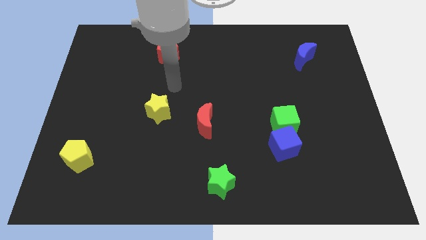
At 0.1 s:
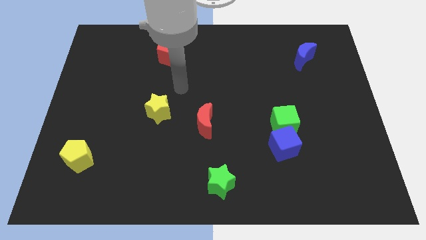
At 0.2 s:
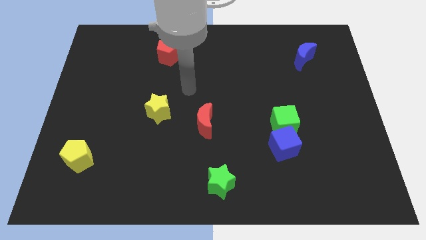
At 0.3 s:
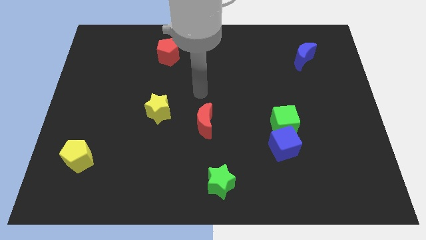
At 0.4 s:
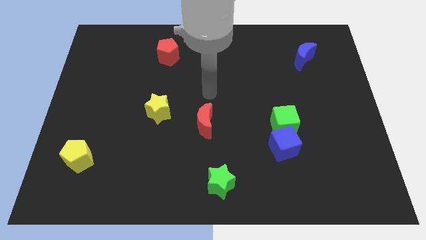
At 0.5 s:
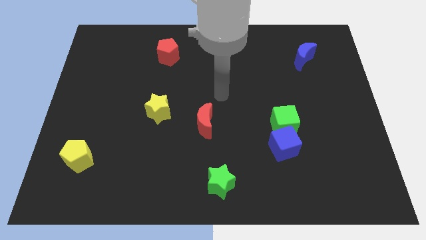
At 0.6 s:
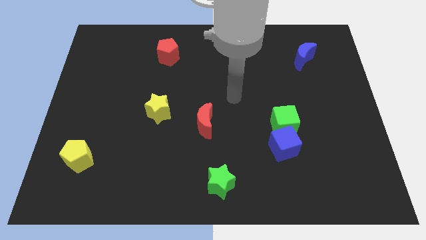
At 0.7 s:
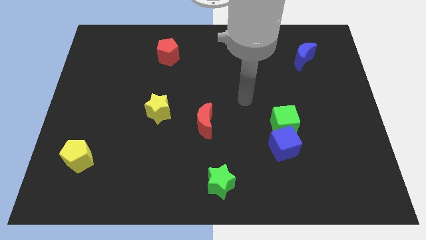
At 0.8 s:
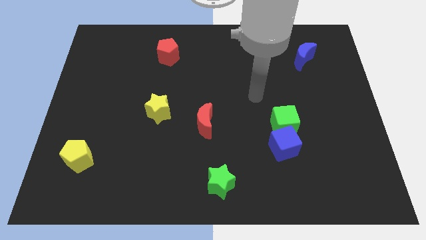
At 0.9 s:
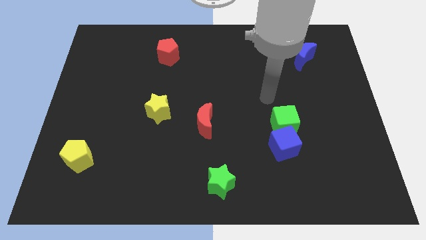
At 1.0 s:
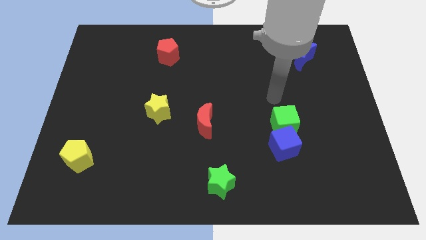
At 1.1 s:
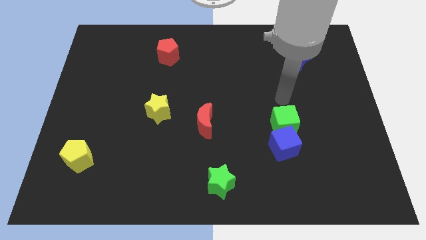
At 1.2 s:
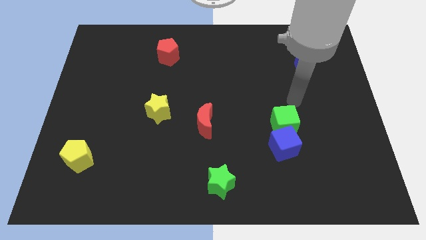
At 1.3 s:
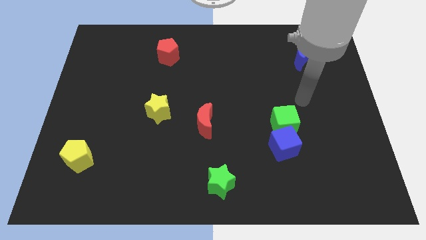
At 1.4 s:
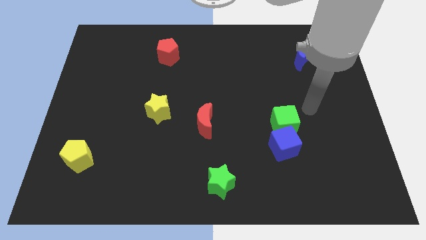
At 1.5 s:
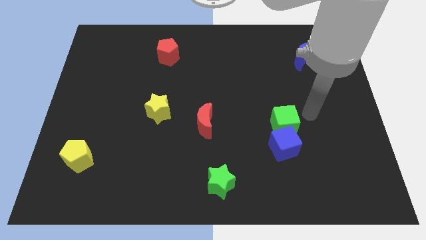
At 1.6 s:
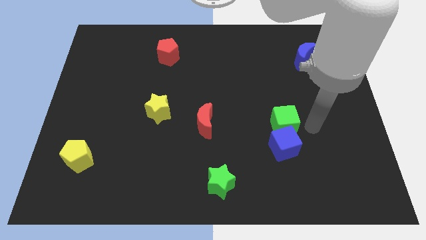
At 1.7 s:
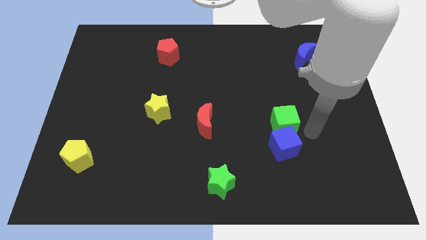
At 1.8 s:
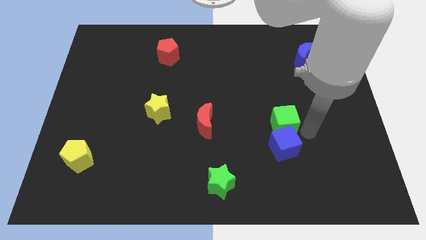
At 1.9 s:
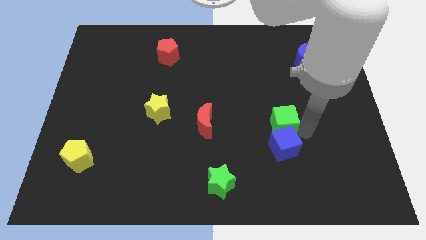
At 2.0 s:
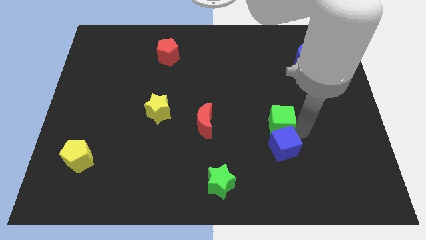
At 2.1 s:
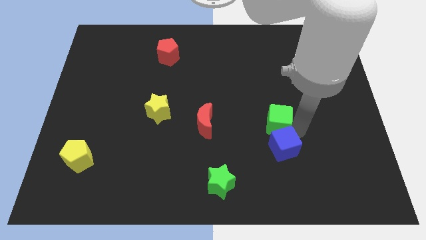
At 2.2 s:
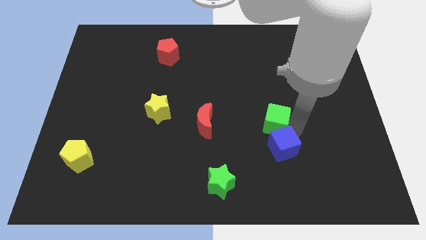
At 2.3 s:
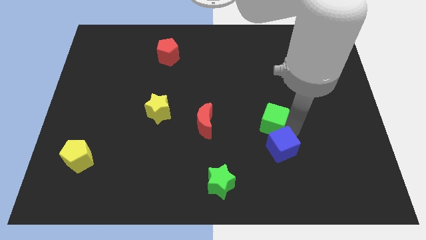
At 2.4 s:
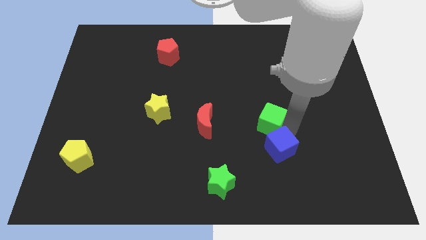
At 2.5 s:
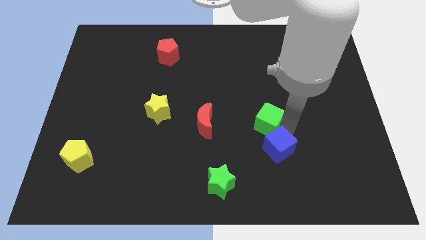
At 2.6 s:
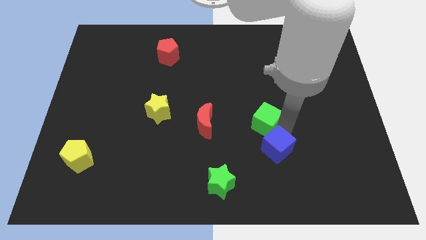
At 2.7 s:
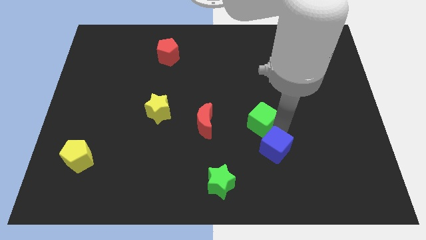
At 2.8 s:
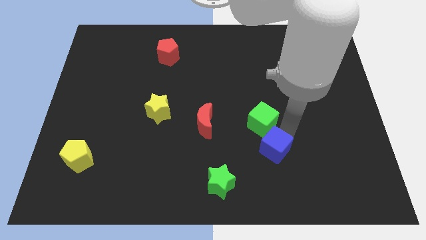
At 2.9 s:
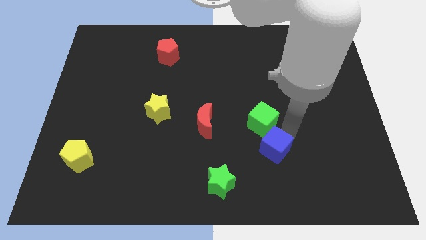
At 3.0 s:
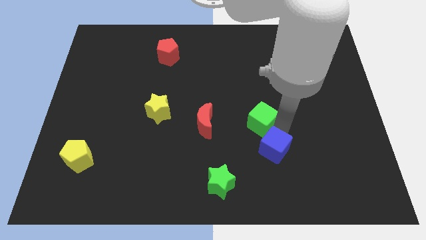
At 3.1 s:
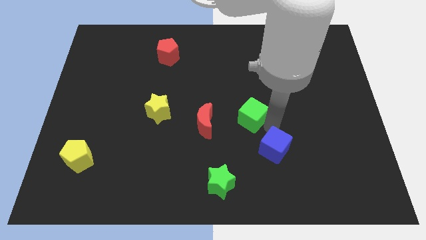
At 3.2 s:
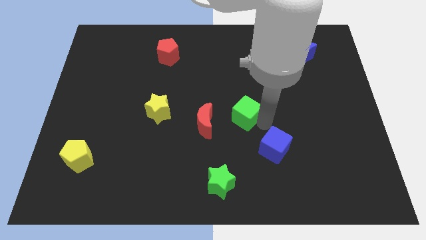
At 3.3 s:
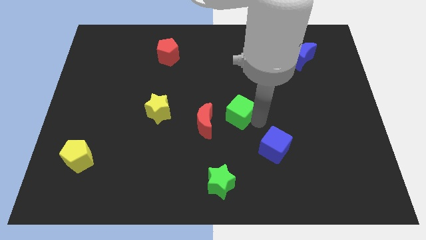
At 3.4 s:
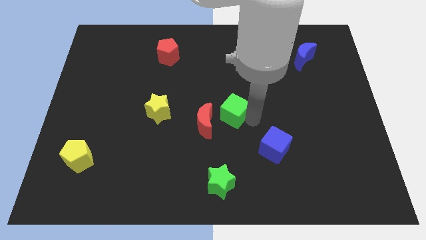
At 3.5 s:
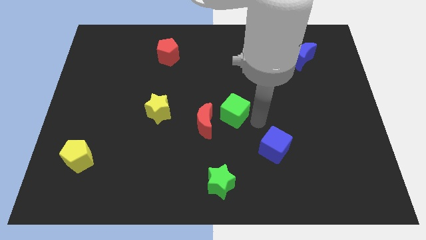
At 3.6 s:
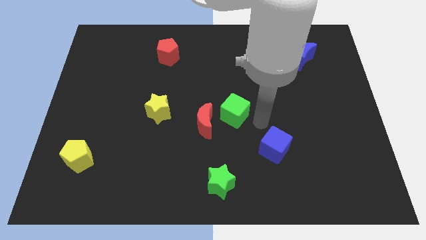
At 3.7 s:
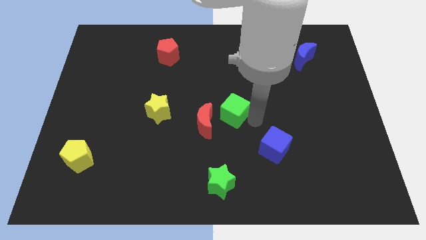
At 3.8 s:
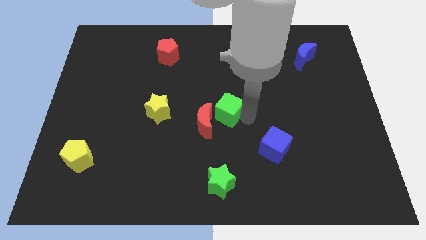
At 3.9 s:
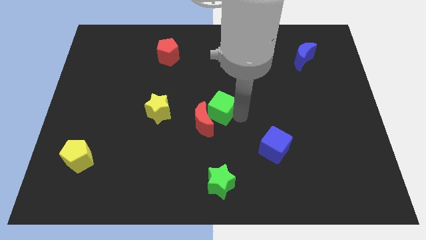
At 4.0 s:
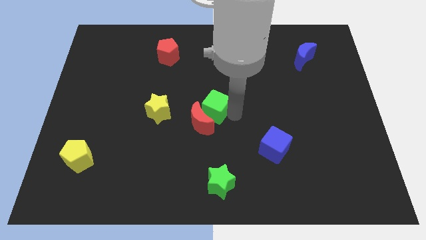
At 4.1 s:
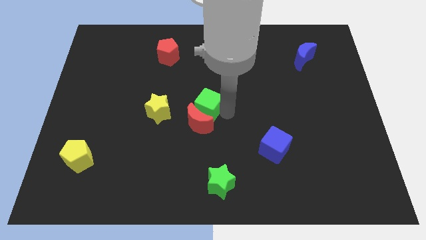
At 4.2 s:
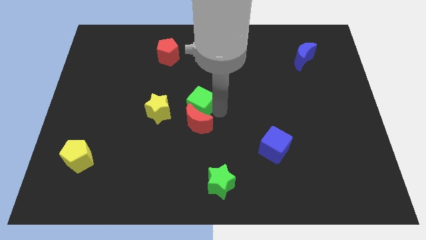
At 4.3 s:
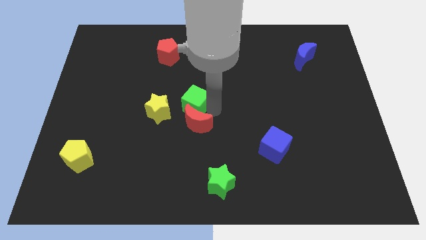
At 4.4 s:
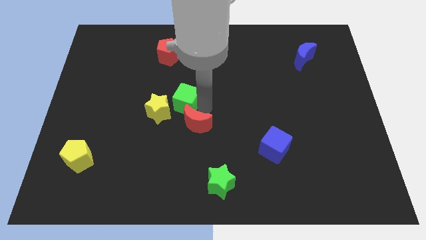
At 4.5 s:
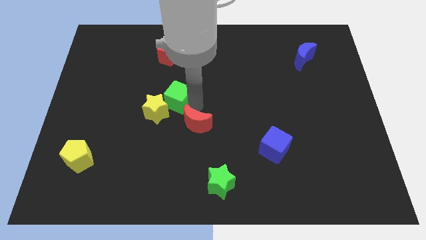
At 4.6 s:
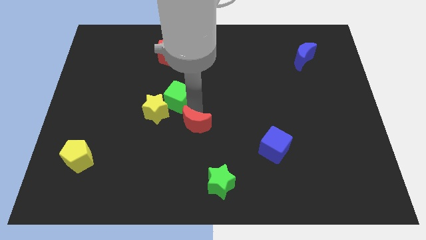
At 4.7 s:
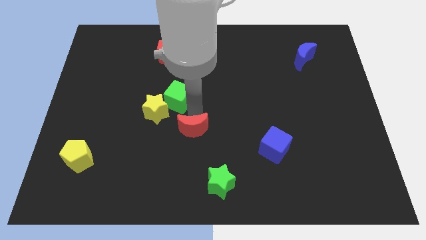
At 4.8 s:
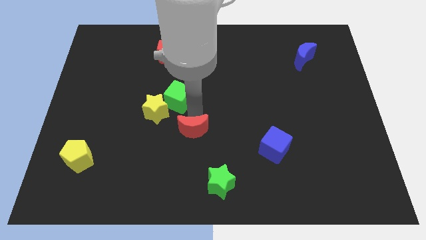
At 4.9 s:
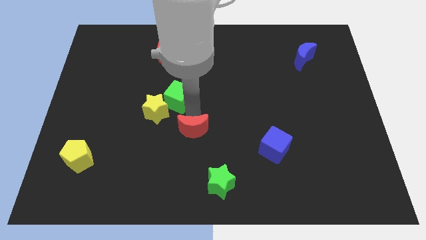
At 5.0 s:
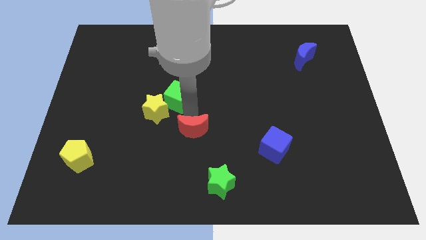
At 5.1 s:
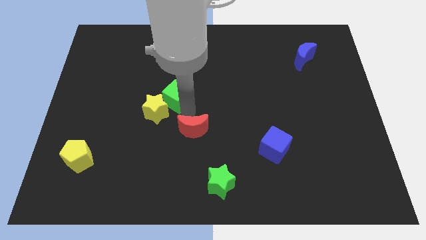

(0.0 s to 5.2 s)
push the green cube below the red pentagon

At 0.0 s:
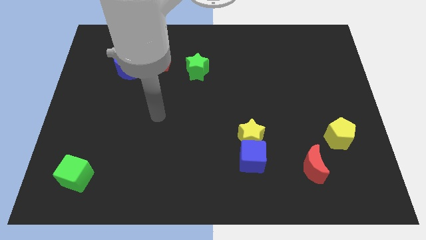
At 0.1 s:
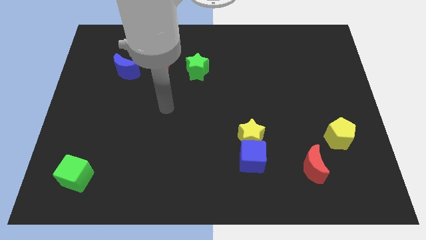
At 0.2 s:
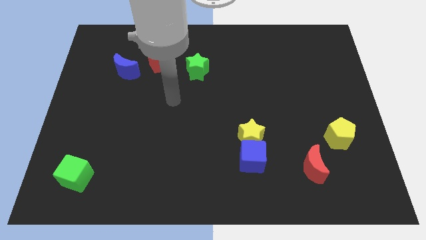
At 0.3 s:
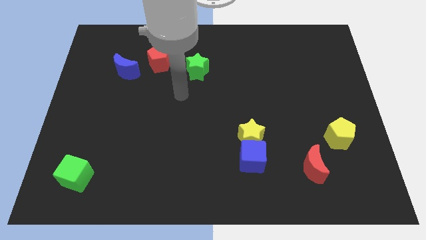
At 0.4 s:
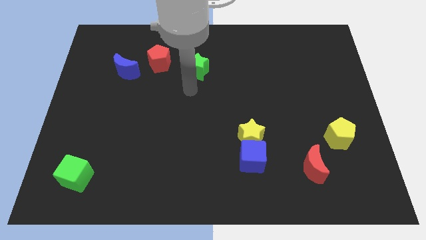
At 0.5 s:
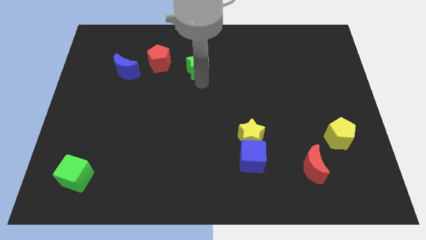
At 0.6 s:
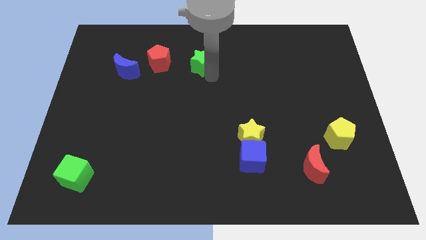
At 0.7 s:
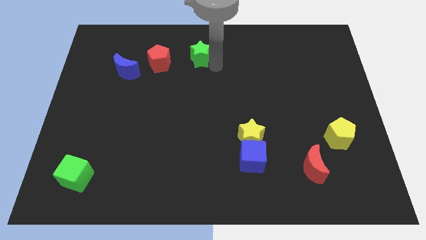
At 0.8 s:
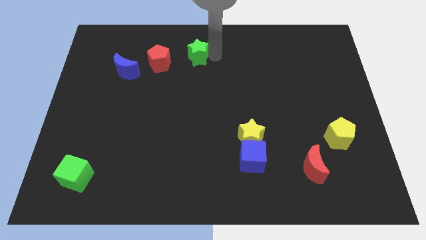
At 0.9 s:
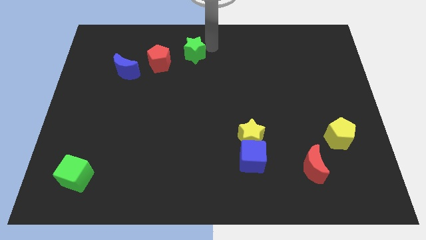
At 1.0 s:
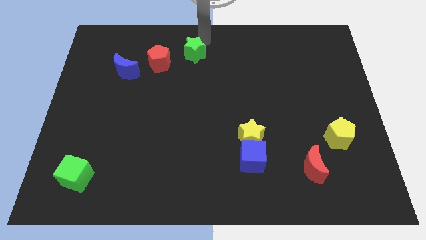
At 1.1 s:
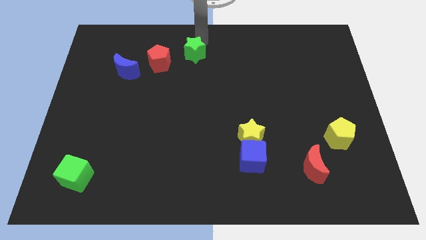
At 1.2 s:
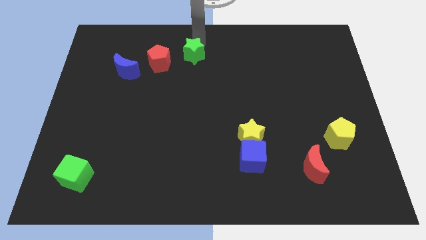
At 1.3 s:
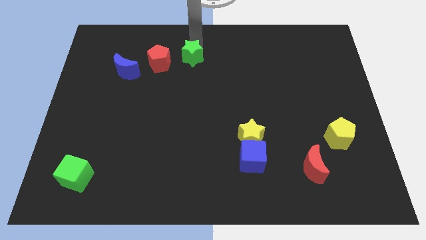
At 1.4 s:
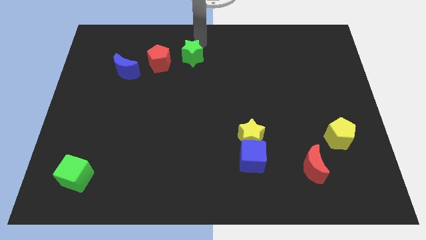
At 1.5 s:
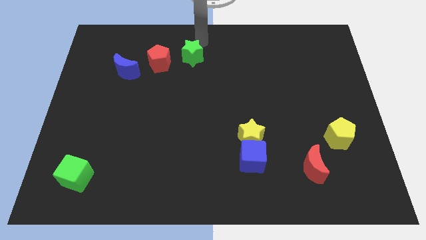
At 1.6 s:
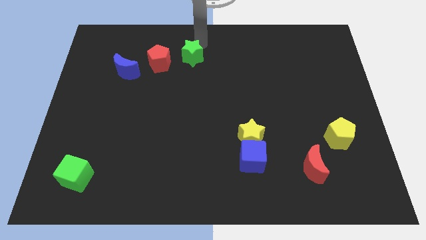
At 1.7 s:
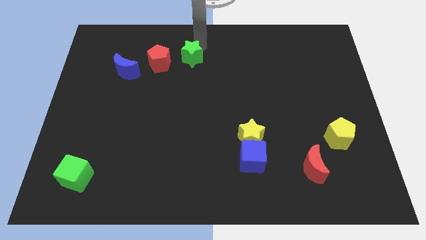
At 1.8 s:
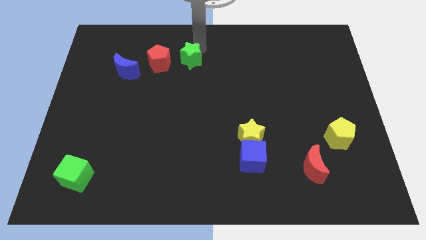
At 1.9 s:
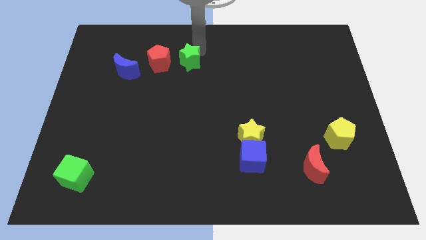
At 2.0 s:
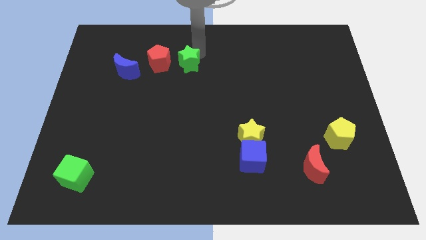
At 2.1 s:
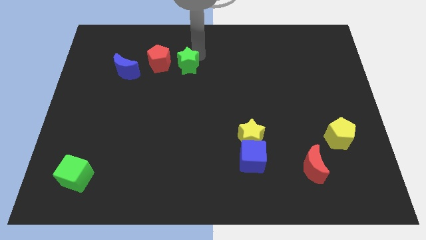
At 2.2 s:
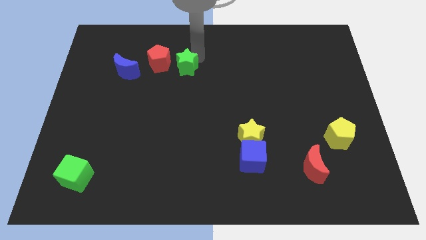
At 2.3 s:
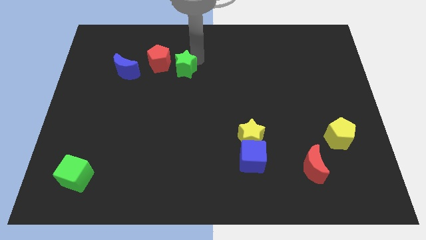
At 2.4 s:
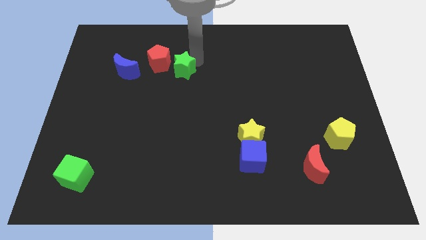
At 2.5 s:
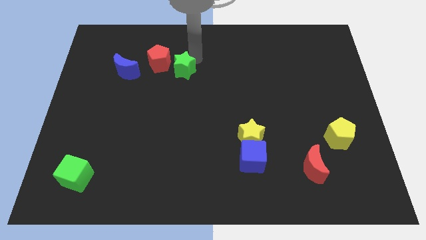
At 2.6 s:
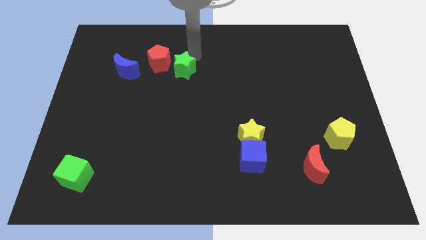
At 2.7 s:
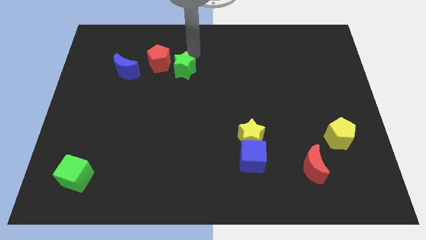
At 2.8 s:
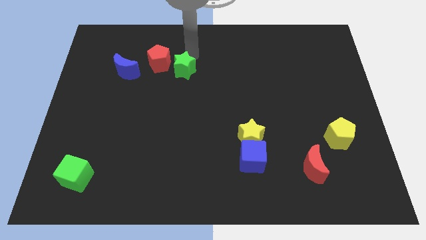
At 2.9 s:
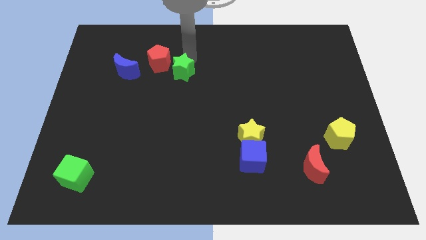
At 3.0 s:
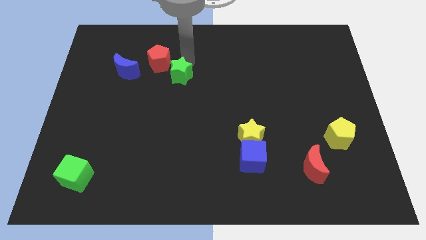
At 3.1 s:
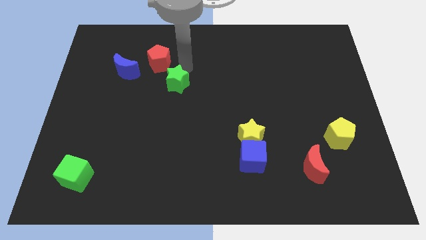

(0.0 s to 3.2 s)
push the green star to the bottom side of the red pentagon
